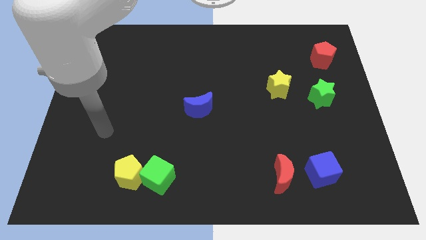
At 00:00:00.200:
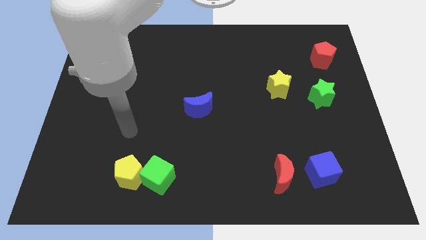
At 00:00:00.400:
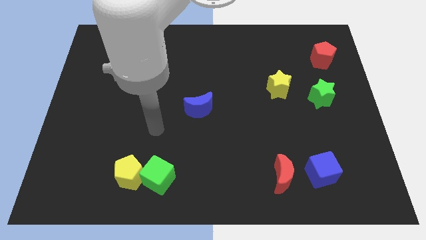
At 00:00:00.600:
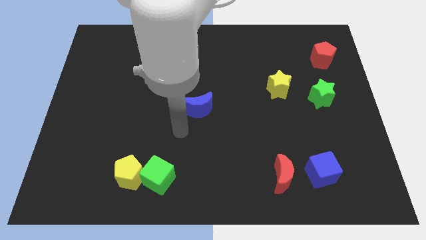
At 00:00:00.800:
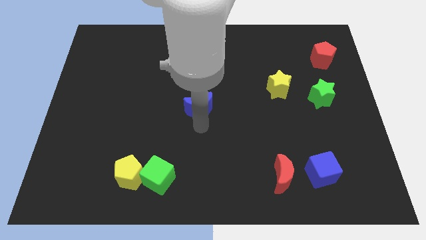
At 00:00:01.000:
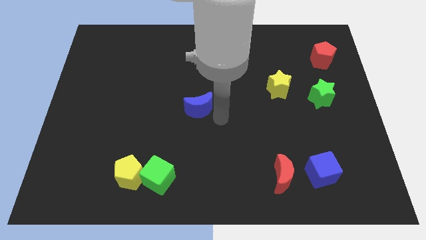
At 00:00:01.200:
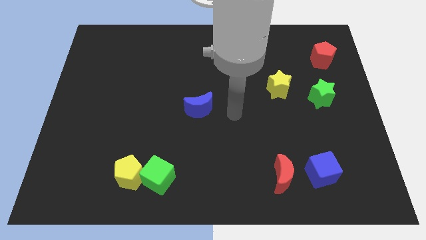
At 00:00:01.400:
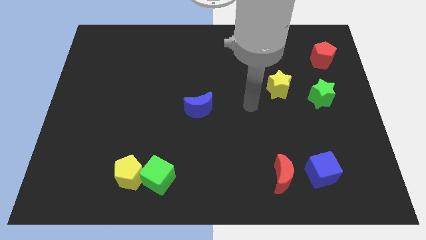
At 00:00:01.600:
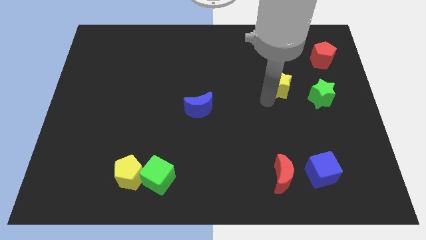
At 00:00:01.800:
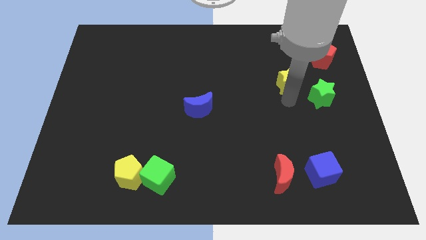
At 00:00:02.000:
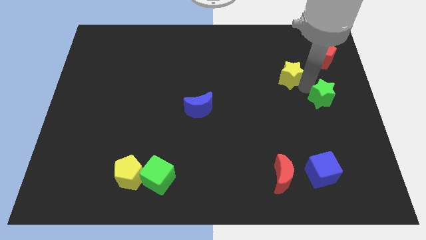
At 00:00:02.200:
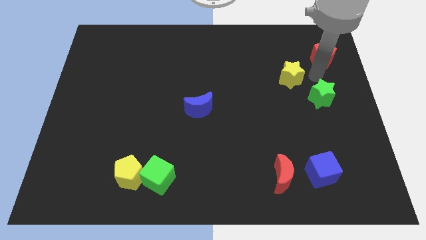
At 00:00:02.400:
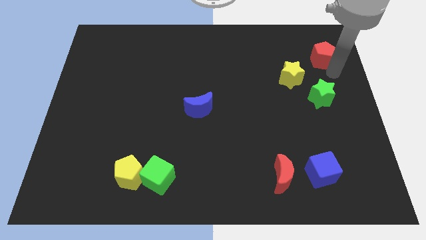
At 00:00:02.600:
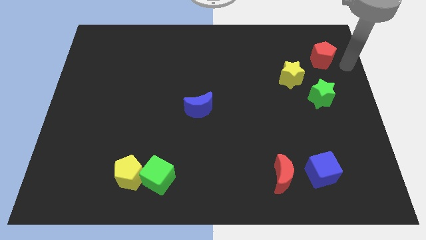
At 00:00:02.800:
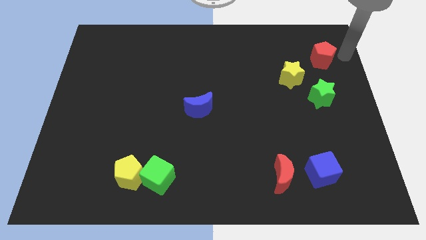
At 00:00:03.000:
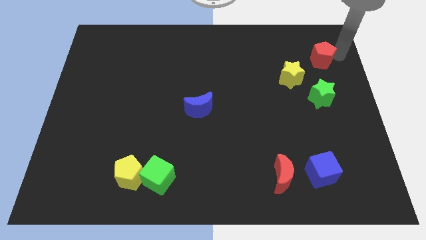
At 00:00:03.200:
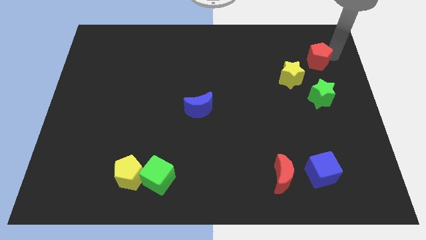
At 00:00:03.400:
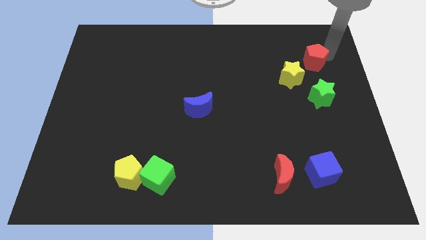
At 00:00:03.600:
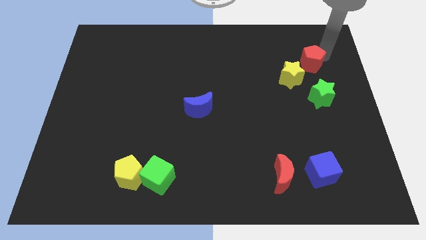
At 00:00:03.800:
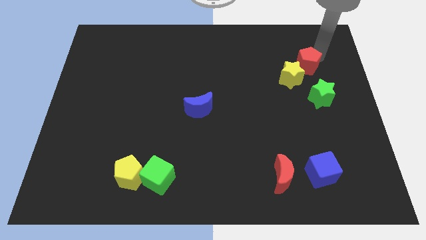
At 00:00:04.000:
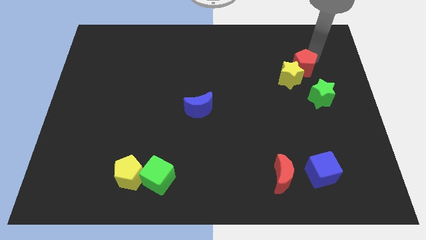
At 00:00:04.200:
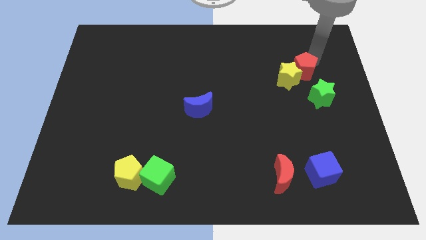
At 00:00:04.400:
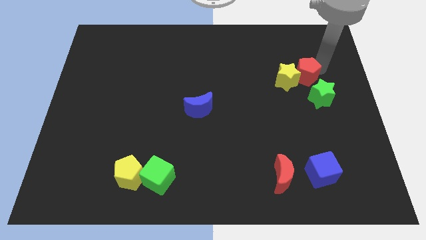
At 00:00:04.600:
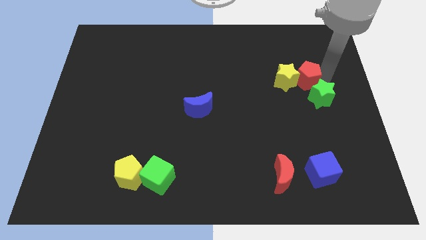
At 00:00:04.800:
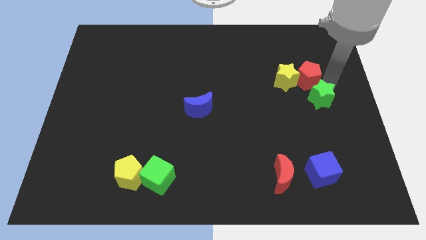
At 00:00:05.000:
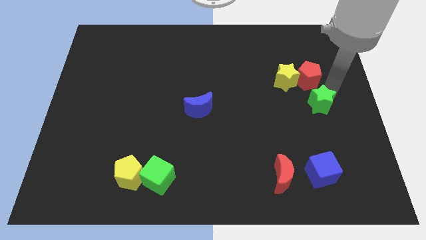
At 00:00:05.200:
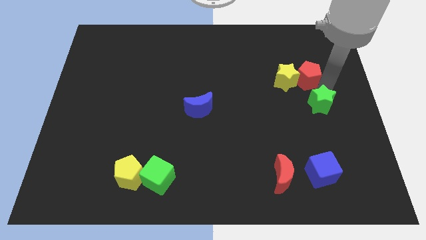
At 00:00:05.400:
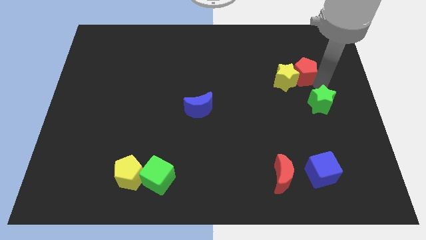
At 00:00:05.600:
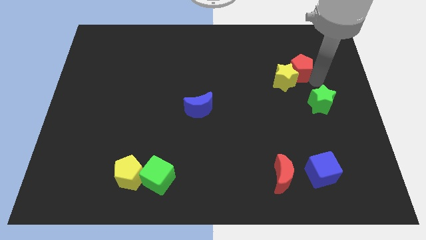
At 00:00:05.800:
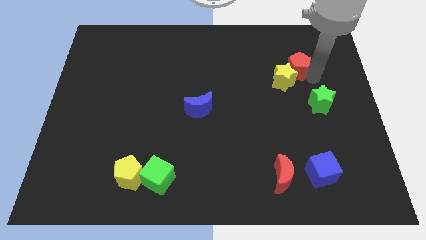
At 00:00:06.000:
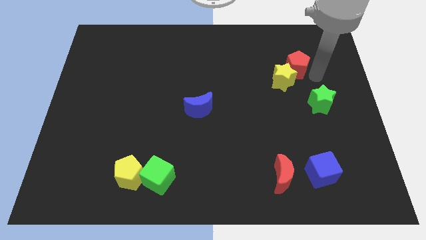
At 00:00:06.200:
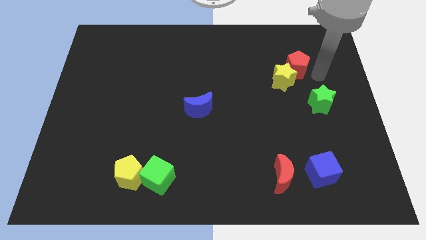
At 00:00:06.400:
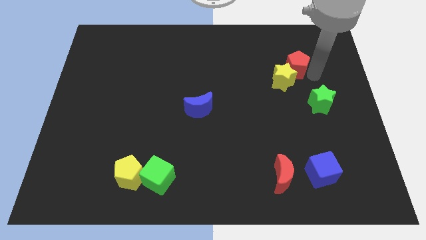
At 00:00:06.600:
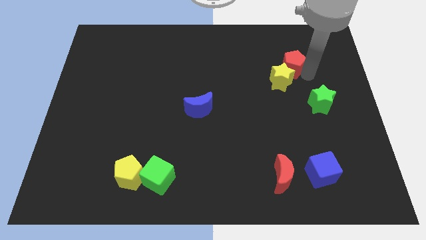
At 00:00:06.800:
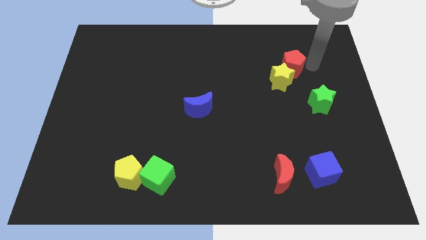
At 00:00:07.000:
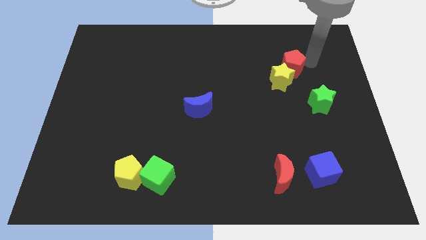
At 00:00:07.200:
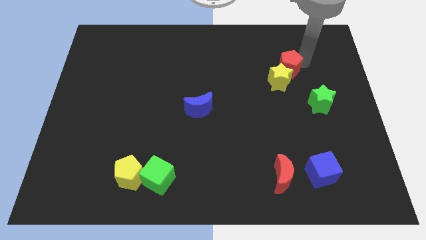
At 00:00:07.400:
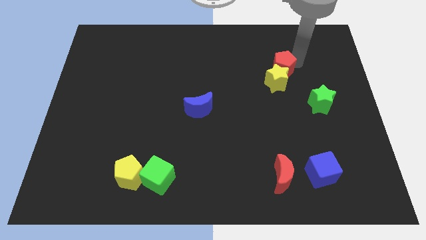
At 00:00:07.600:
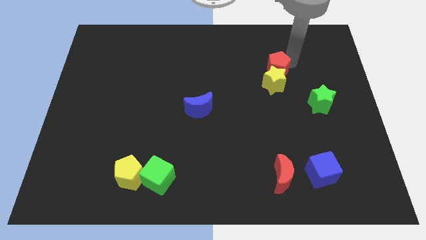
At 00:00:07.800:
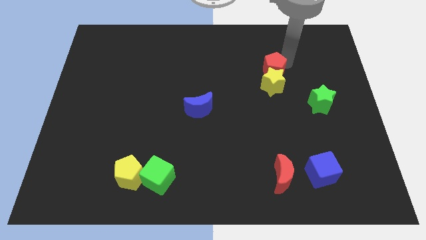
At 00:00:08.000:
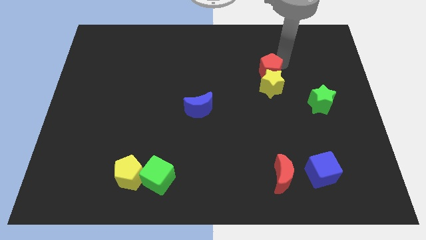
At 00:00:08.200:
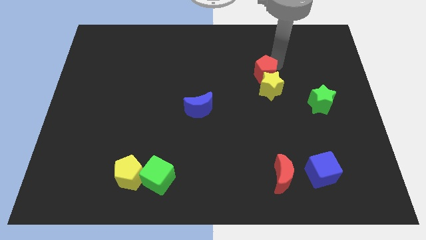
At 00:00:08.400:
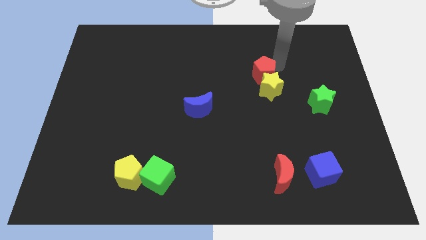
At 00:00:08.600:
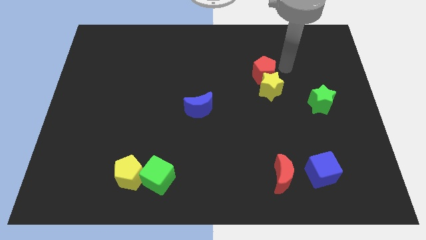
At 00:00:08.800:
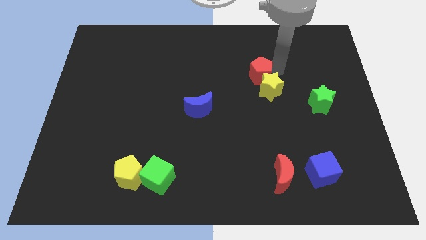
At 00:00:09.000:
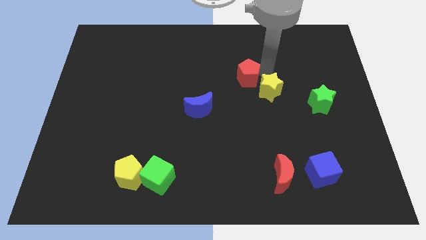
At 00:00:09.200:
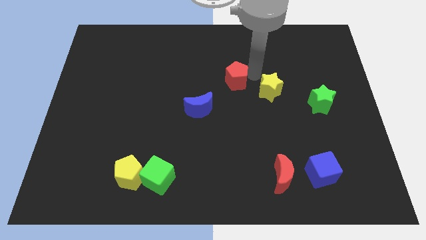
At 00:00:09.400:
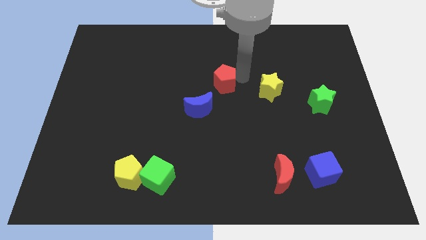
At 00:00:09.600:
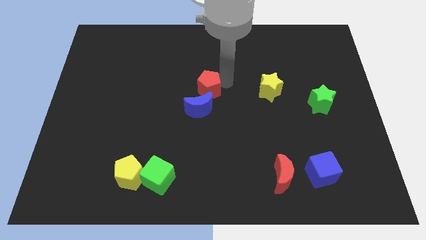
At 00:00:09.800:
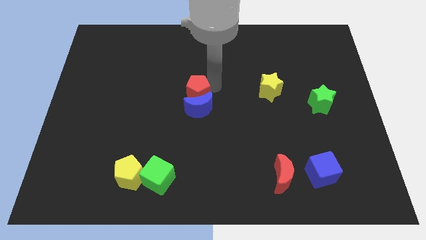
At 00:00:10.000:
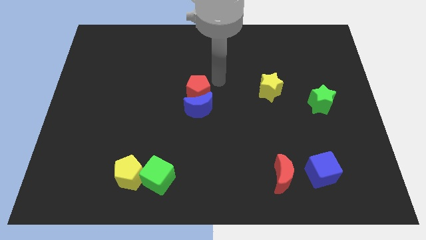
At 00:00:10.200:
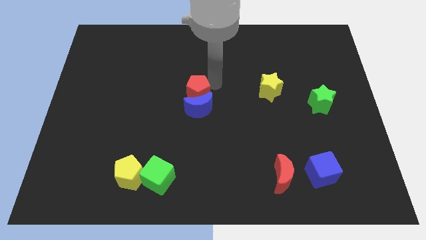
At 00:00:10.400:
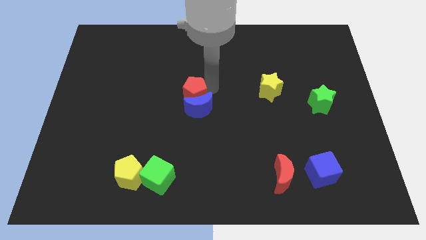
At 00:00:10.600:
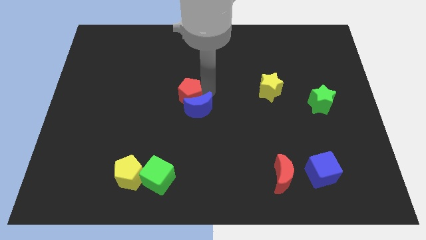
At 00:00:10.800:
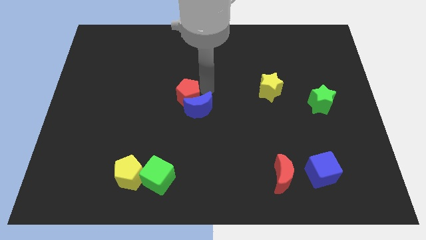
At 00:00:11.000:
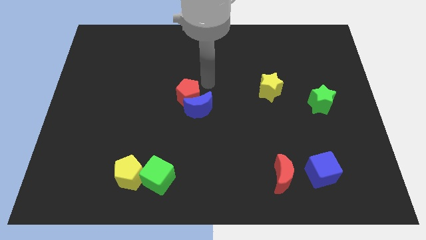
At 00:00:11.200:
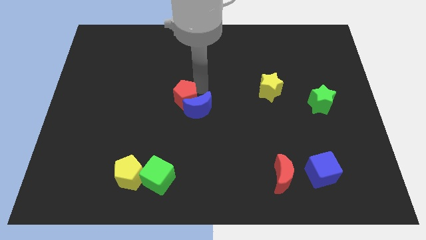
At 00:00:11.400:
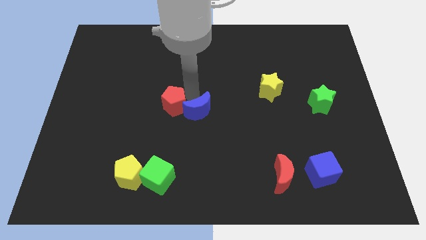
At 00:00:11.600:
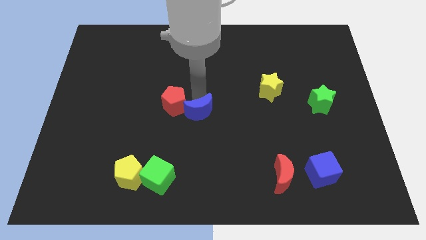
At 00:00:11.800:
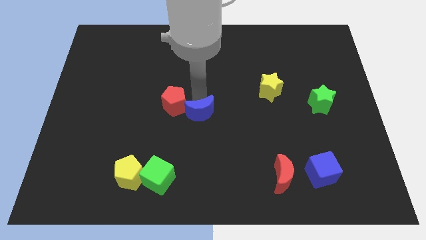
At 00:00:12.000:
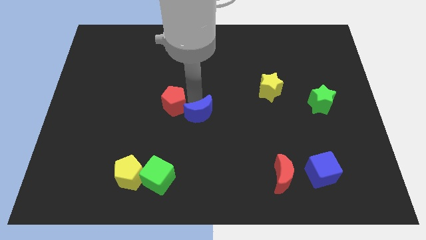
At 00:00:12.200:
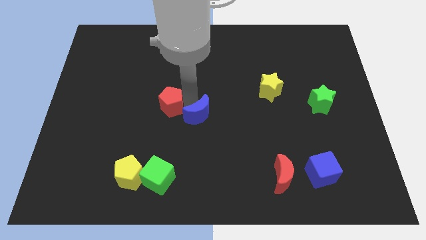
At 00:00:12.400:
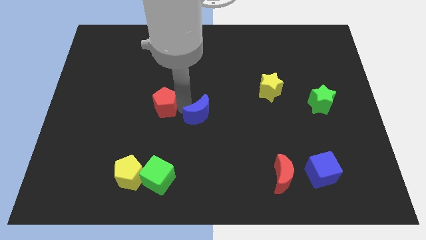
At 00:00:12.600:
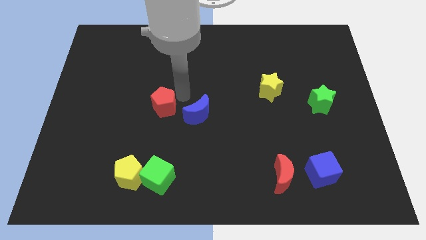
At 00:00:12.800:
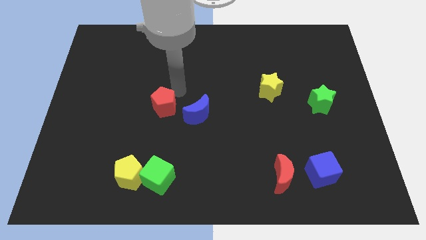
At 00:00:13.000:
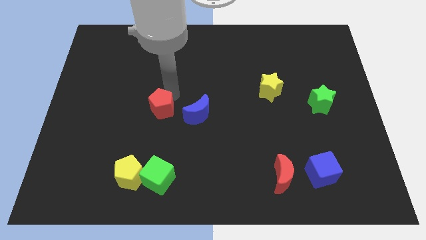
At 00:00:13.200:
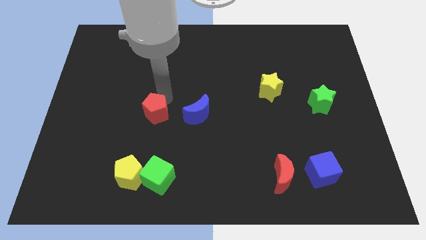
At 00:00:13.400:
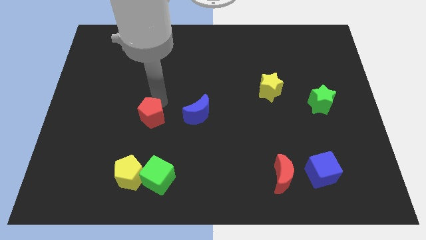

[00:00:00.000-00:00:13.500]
move the red pentagon above the yellow pentagon
